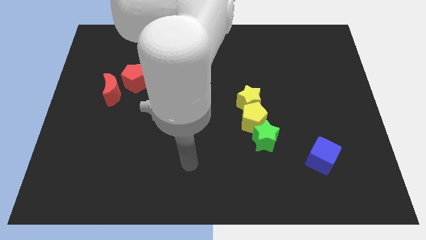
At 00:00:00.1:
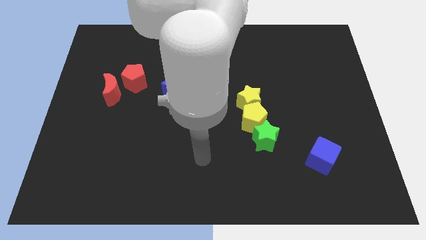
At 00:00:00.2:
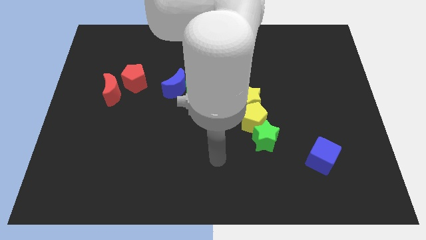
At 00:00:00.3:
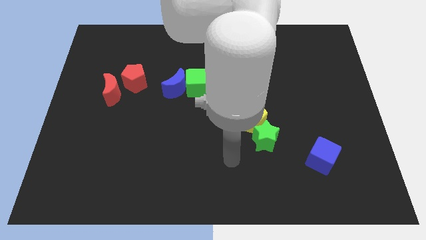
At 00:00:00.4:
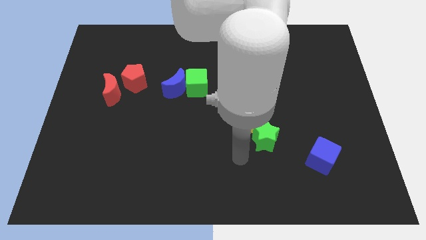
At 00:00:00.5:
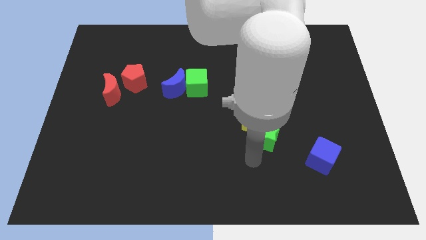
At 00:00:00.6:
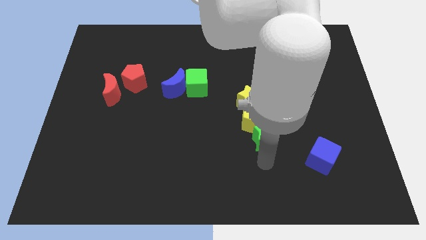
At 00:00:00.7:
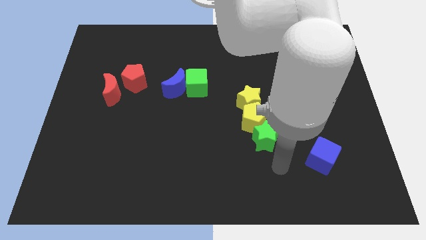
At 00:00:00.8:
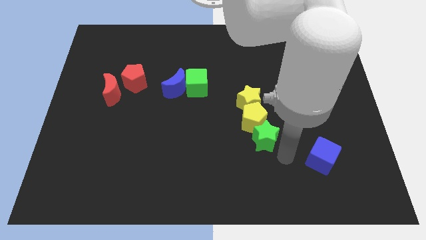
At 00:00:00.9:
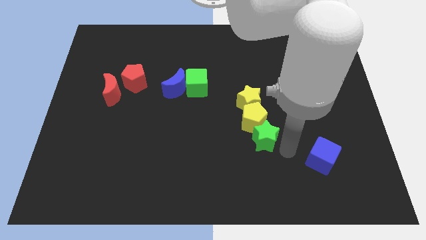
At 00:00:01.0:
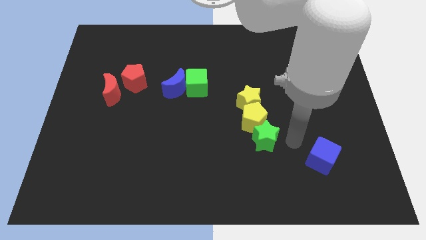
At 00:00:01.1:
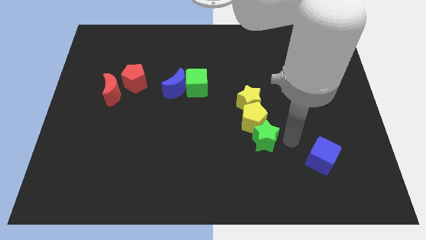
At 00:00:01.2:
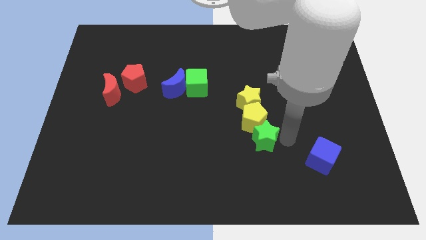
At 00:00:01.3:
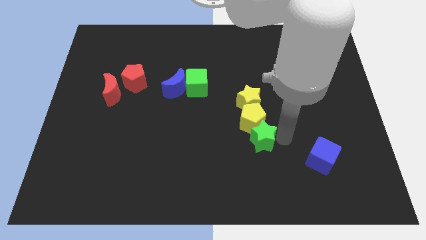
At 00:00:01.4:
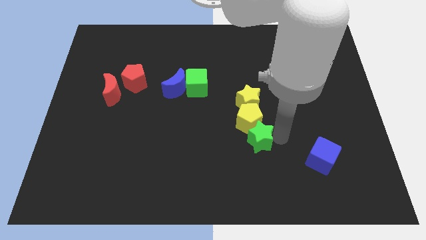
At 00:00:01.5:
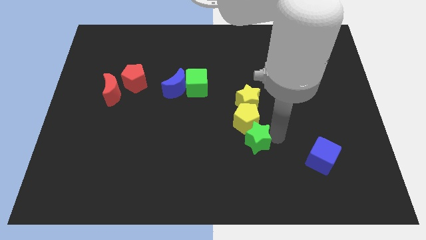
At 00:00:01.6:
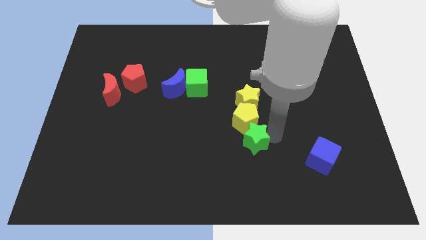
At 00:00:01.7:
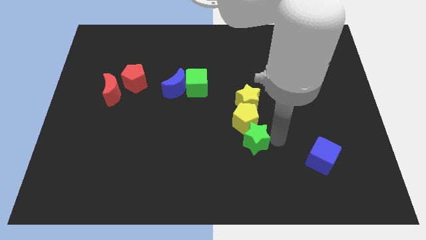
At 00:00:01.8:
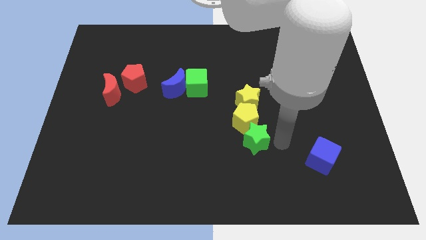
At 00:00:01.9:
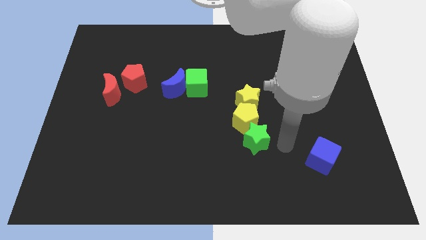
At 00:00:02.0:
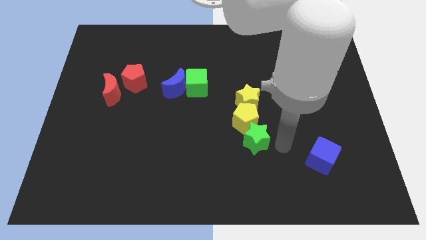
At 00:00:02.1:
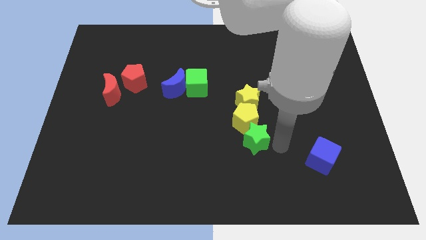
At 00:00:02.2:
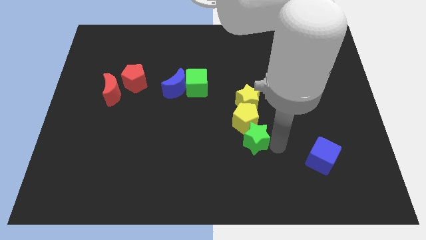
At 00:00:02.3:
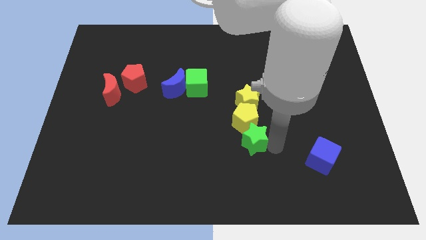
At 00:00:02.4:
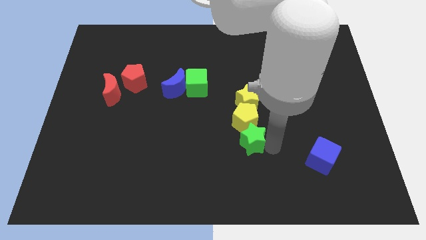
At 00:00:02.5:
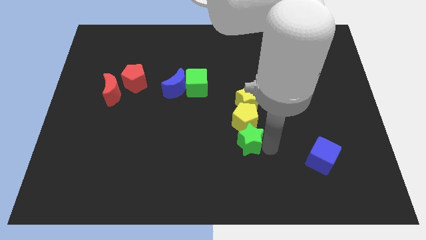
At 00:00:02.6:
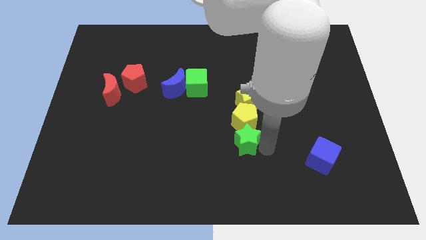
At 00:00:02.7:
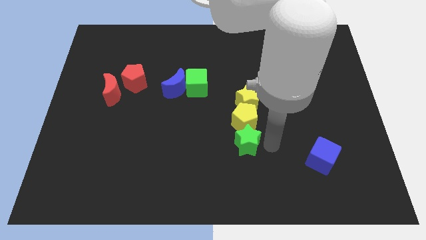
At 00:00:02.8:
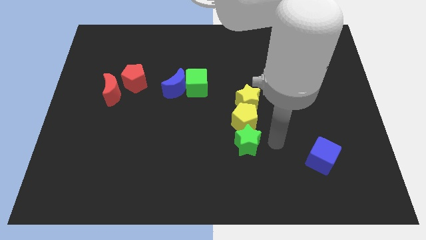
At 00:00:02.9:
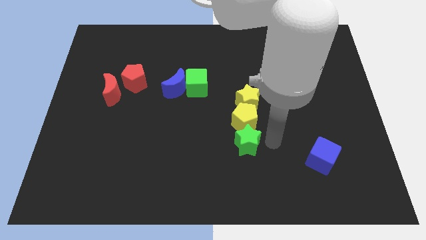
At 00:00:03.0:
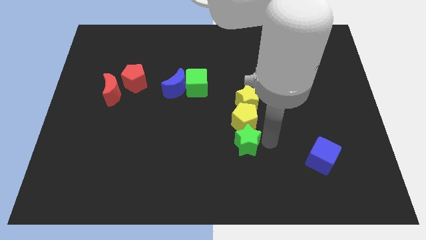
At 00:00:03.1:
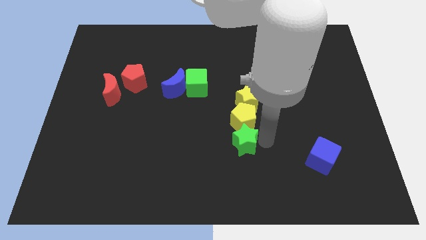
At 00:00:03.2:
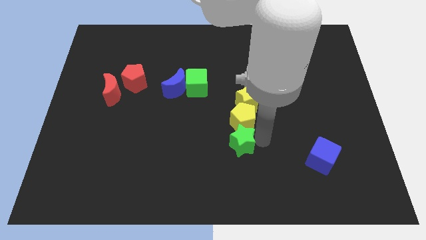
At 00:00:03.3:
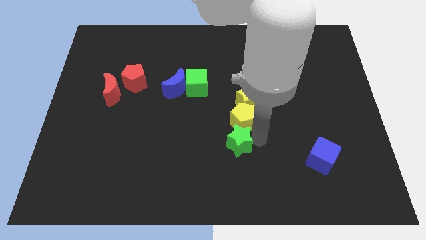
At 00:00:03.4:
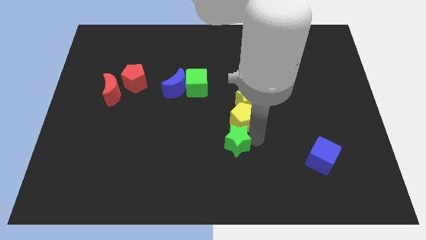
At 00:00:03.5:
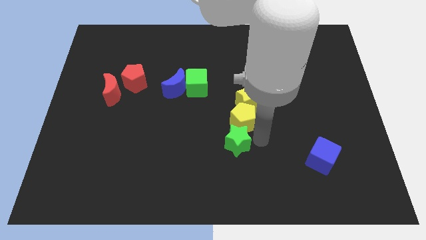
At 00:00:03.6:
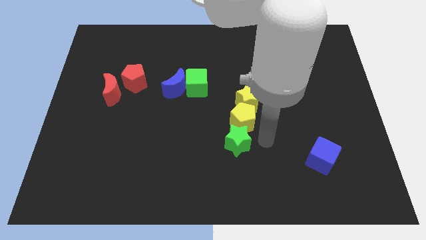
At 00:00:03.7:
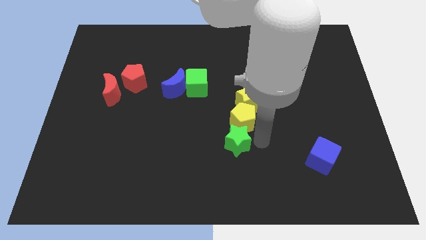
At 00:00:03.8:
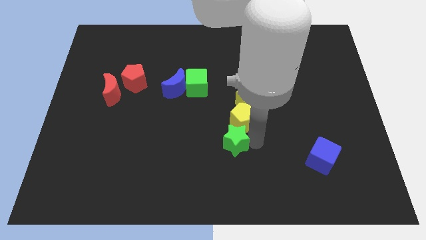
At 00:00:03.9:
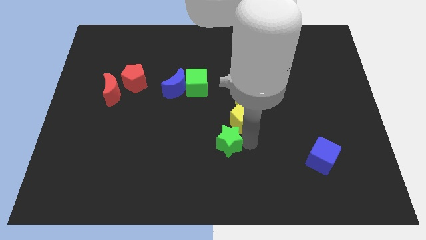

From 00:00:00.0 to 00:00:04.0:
push the green star to the left a bit

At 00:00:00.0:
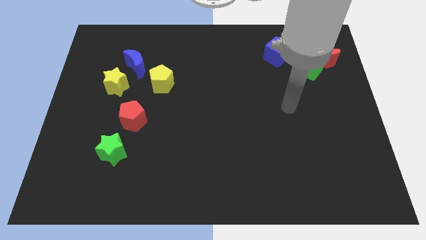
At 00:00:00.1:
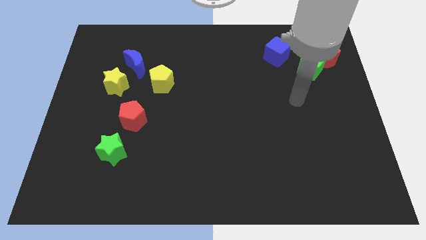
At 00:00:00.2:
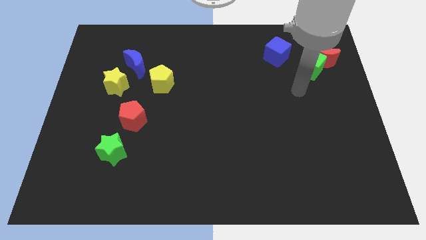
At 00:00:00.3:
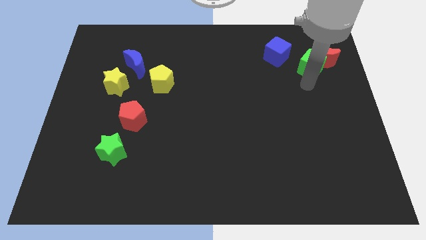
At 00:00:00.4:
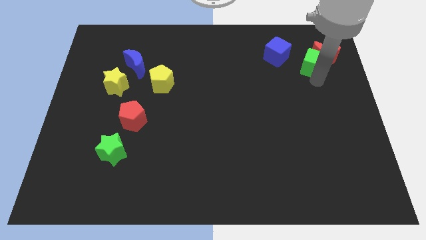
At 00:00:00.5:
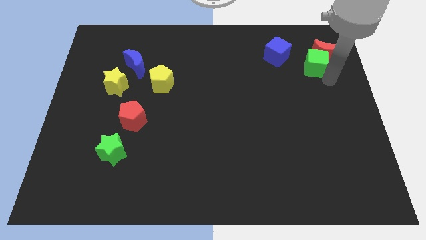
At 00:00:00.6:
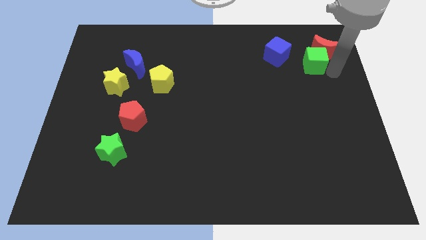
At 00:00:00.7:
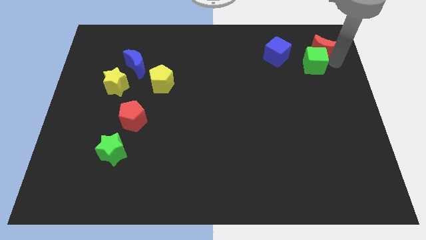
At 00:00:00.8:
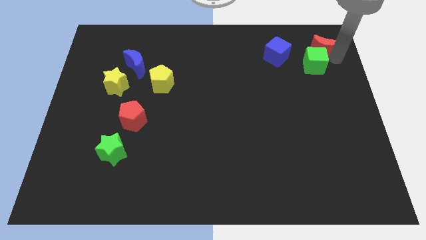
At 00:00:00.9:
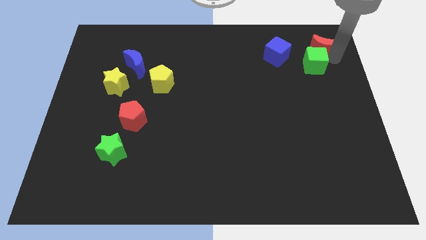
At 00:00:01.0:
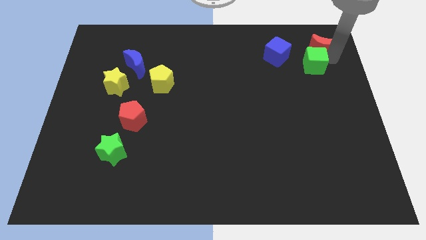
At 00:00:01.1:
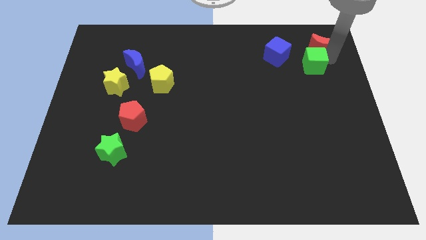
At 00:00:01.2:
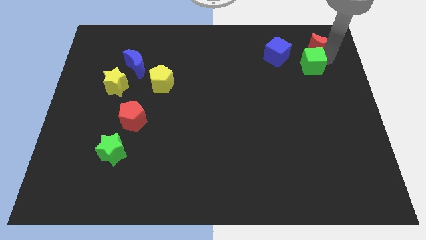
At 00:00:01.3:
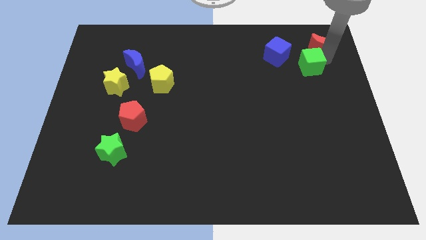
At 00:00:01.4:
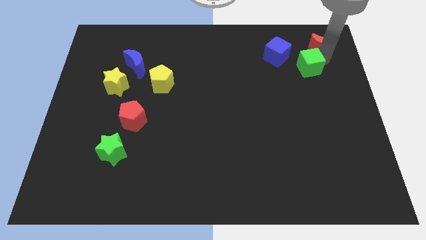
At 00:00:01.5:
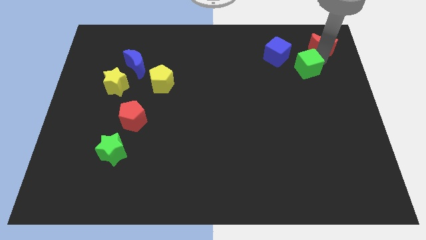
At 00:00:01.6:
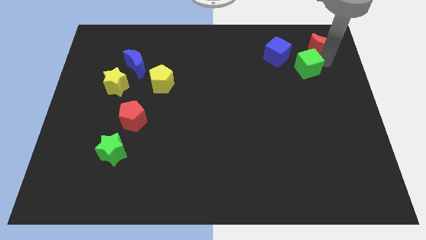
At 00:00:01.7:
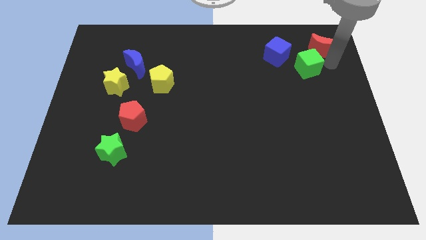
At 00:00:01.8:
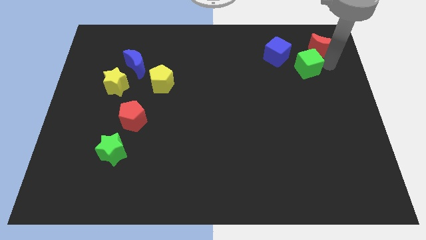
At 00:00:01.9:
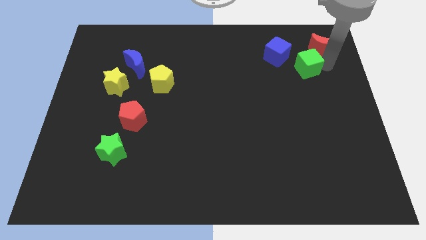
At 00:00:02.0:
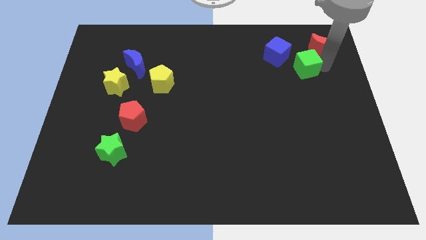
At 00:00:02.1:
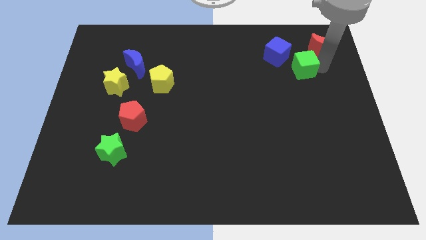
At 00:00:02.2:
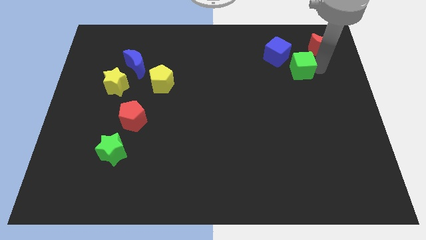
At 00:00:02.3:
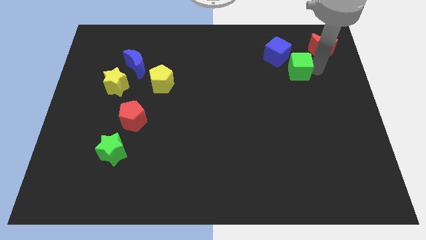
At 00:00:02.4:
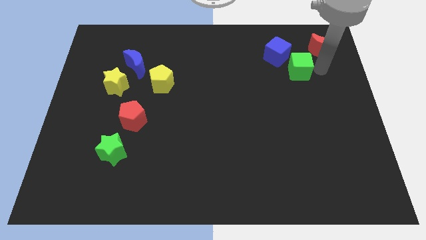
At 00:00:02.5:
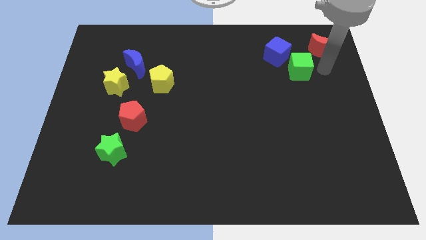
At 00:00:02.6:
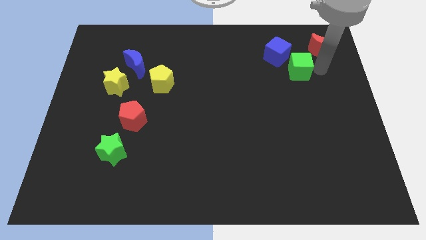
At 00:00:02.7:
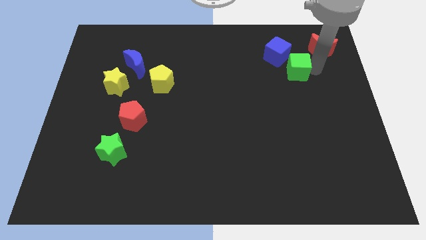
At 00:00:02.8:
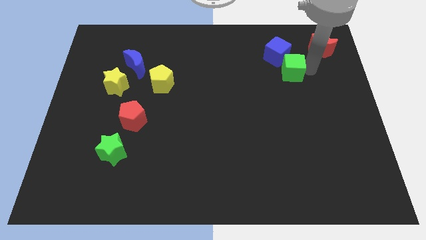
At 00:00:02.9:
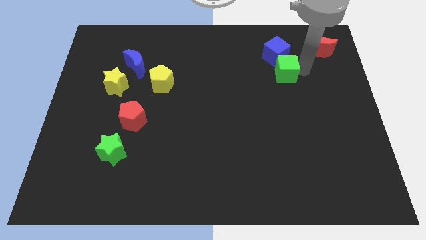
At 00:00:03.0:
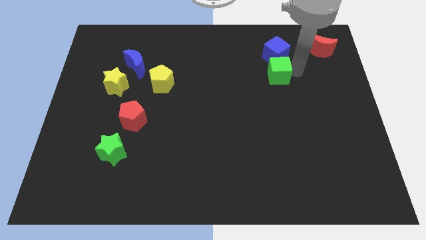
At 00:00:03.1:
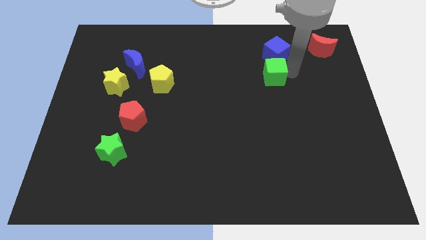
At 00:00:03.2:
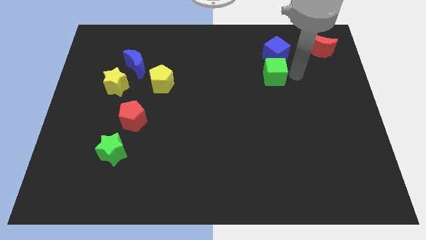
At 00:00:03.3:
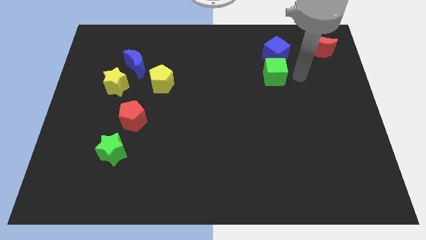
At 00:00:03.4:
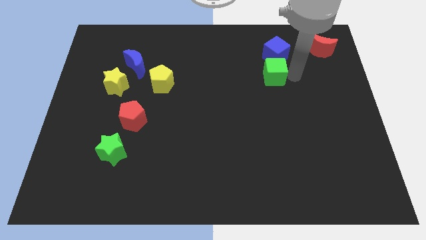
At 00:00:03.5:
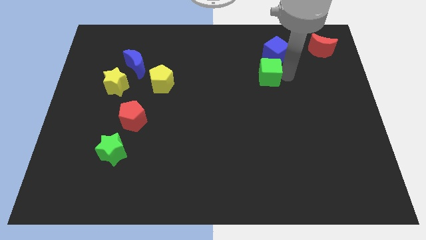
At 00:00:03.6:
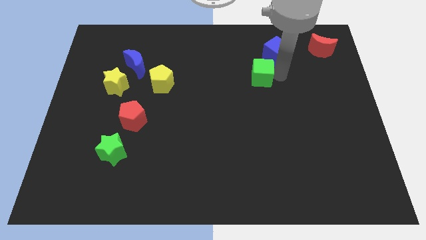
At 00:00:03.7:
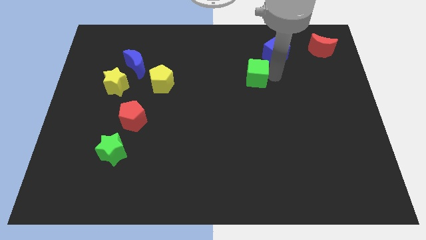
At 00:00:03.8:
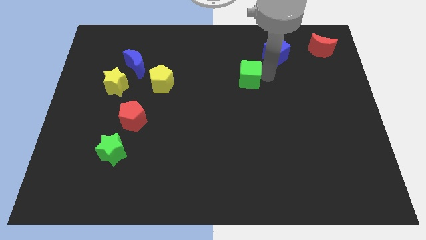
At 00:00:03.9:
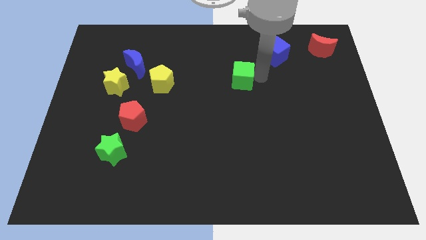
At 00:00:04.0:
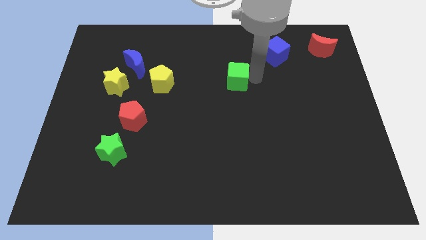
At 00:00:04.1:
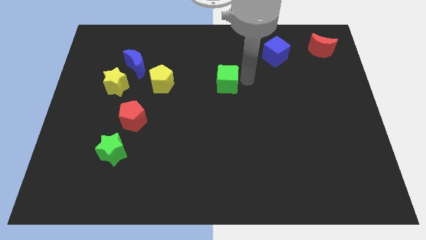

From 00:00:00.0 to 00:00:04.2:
slide the green cube left
